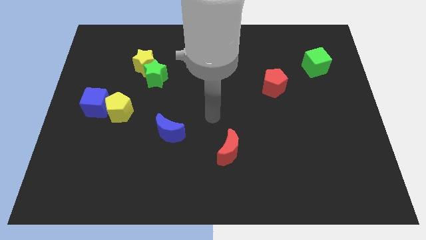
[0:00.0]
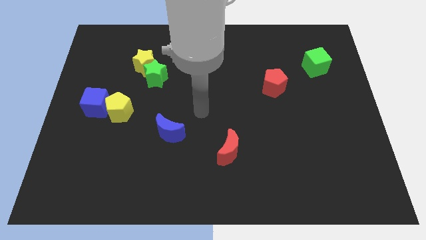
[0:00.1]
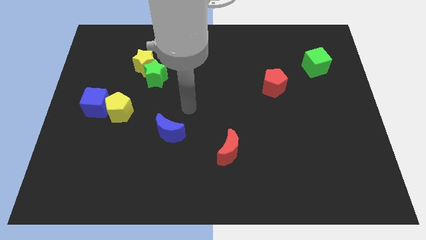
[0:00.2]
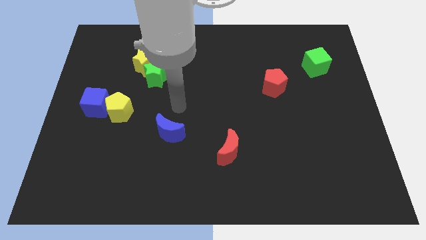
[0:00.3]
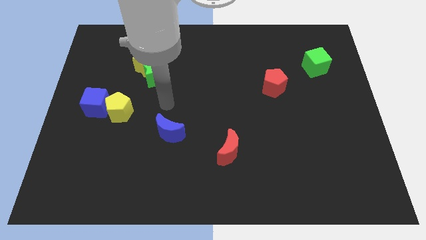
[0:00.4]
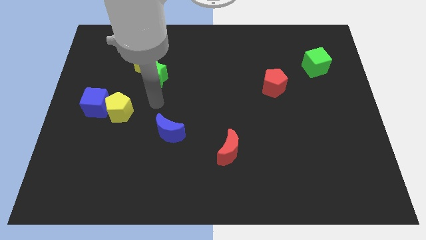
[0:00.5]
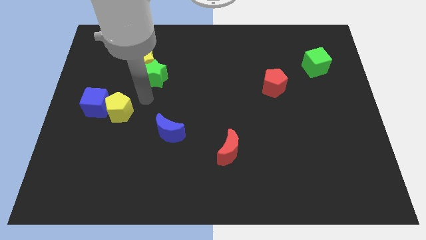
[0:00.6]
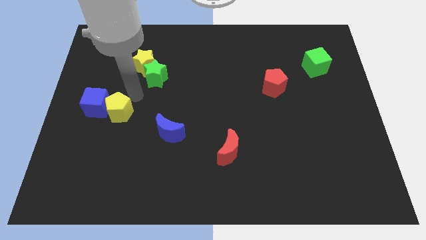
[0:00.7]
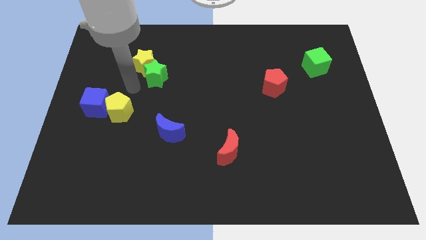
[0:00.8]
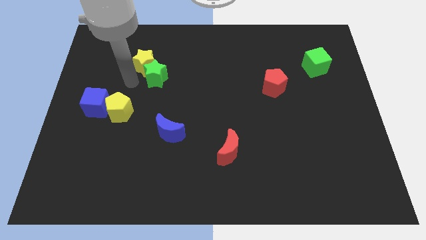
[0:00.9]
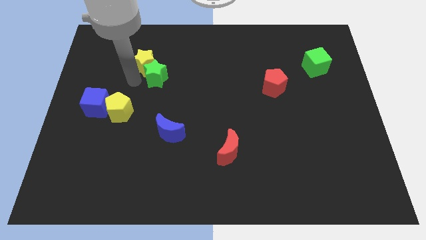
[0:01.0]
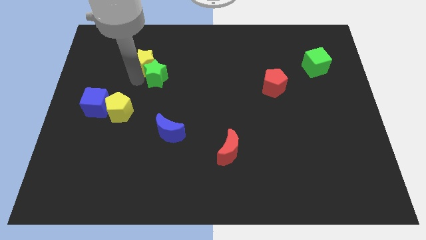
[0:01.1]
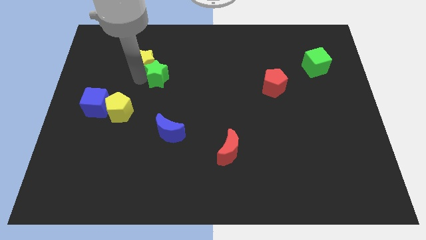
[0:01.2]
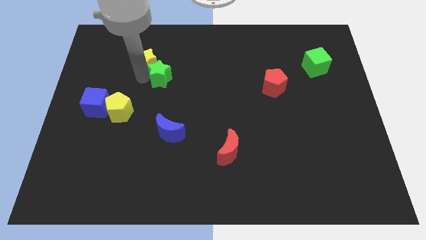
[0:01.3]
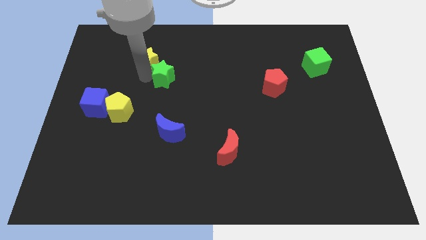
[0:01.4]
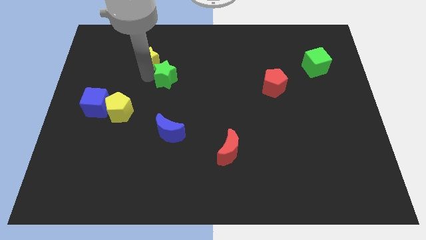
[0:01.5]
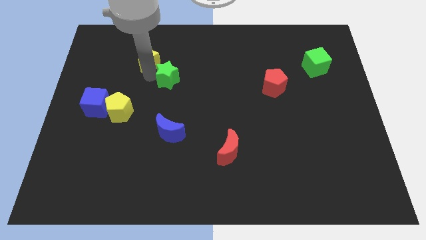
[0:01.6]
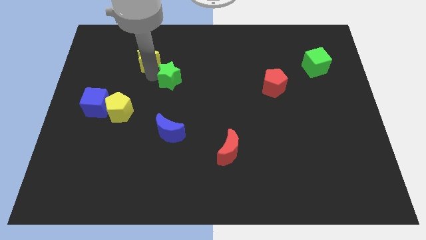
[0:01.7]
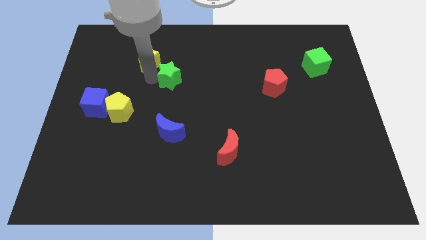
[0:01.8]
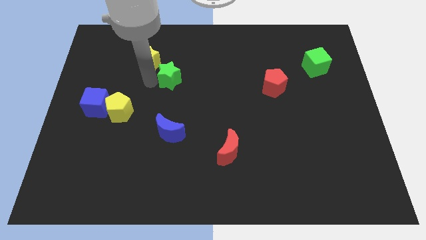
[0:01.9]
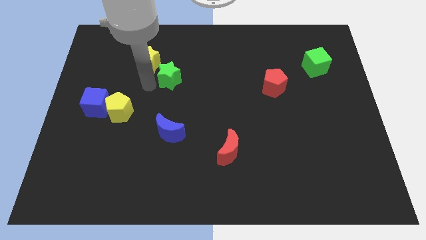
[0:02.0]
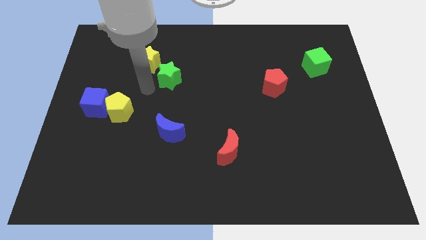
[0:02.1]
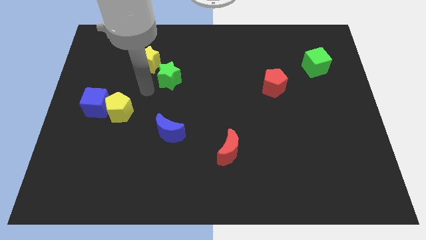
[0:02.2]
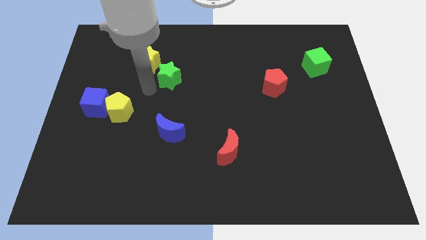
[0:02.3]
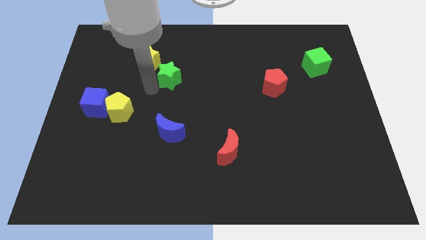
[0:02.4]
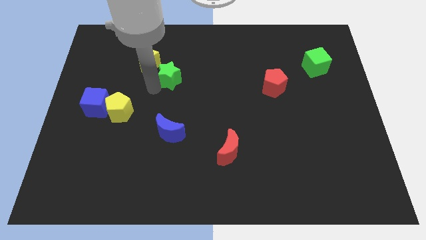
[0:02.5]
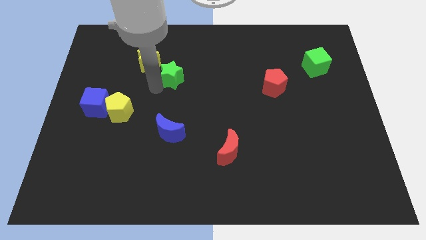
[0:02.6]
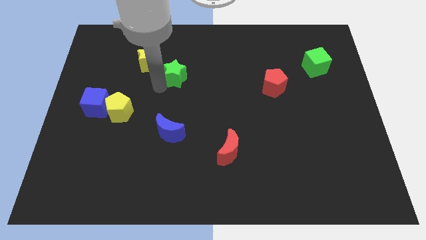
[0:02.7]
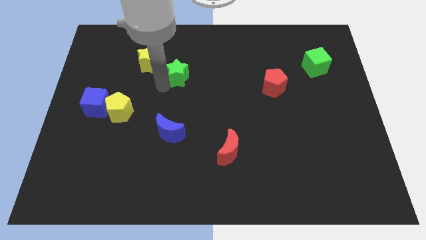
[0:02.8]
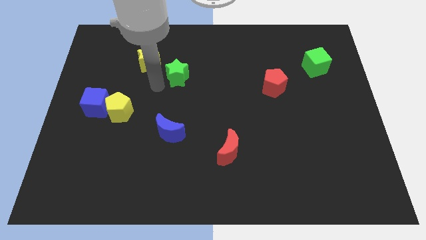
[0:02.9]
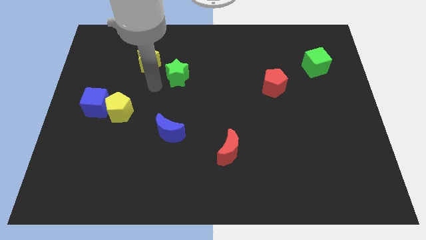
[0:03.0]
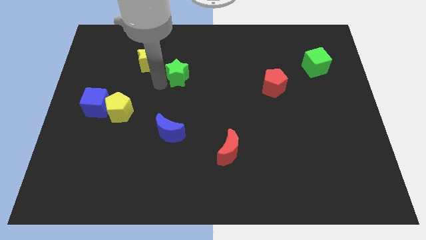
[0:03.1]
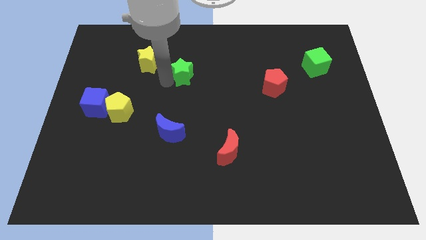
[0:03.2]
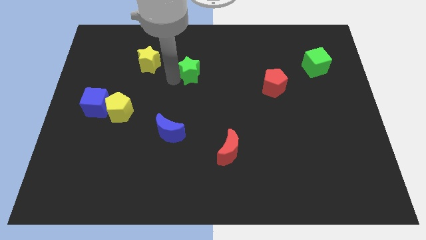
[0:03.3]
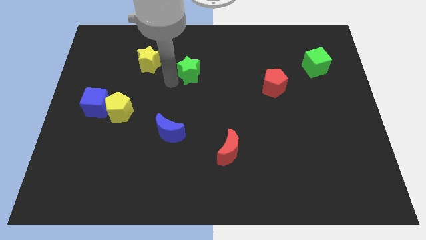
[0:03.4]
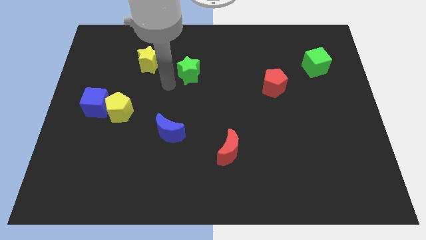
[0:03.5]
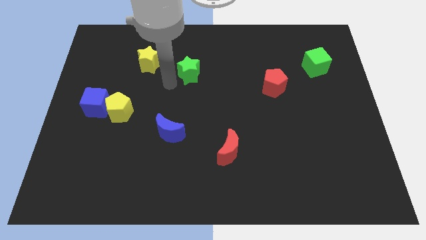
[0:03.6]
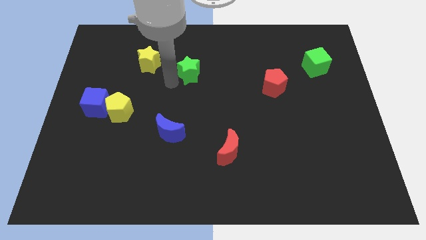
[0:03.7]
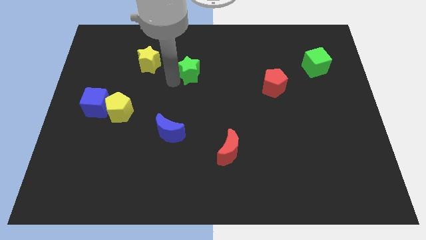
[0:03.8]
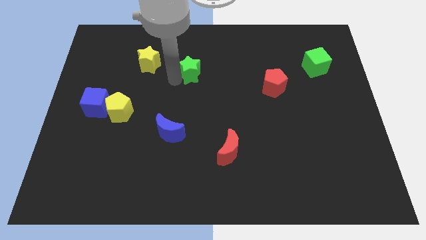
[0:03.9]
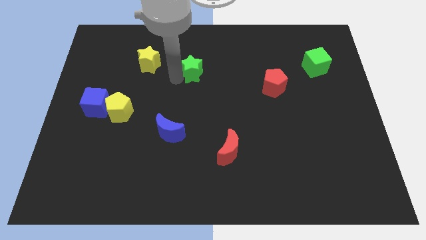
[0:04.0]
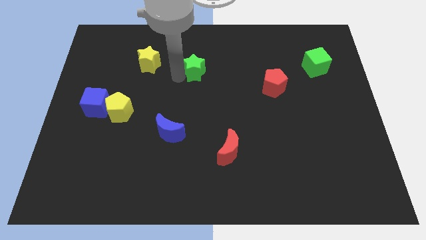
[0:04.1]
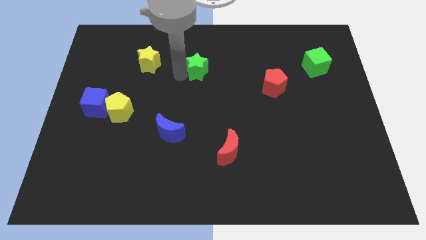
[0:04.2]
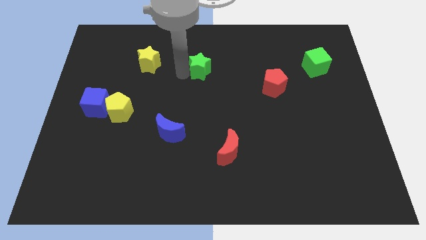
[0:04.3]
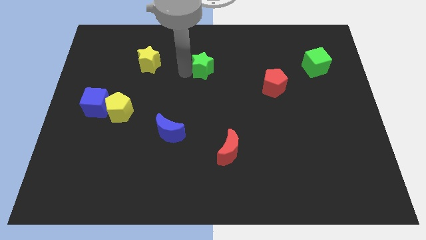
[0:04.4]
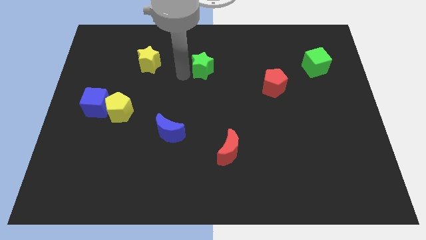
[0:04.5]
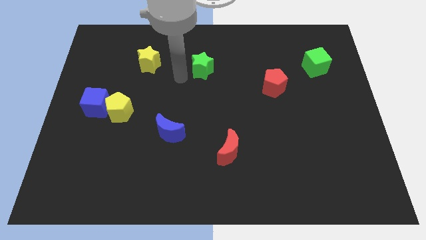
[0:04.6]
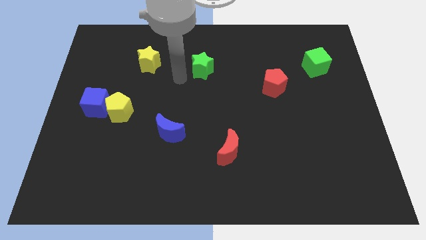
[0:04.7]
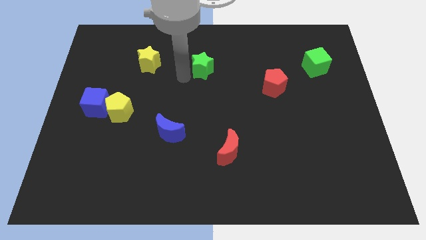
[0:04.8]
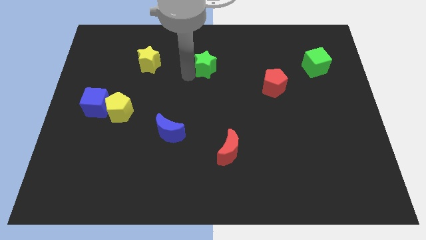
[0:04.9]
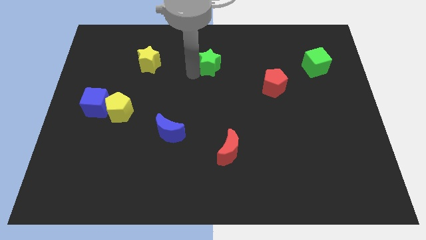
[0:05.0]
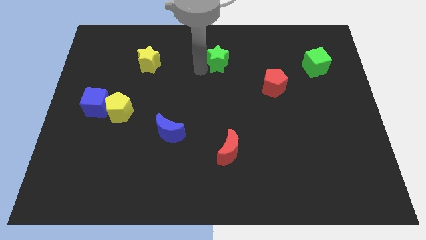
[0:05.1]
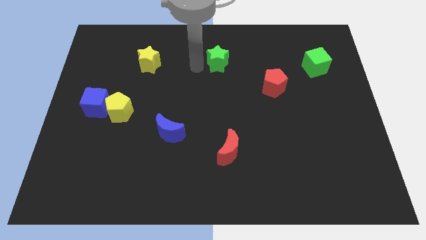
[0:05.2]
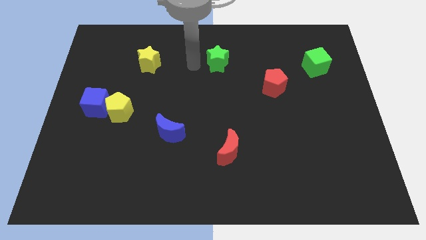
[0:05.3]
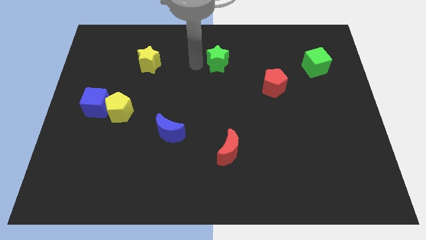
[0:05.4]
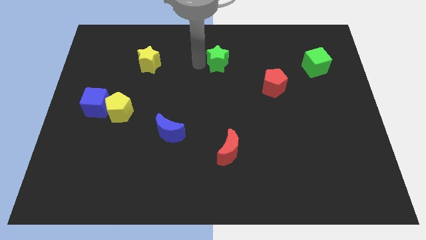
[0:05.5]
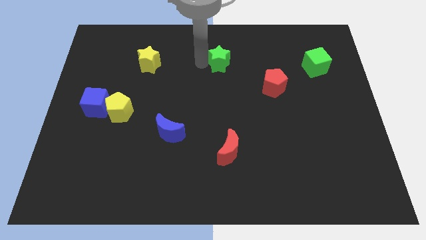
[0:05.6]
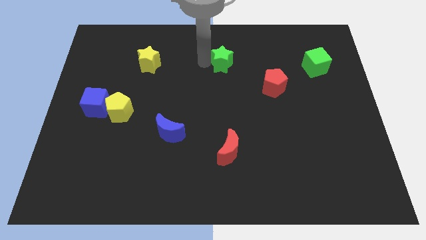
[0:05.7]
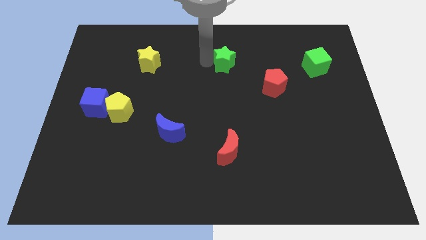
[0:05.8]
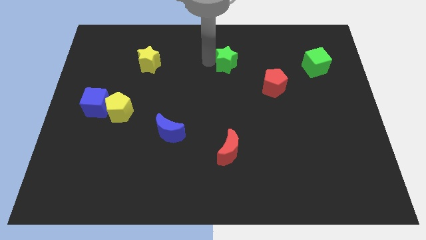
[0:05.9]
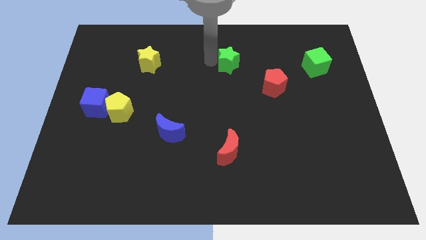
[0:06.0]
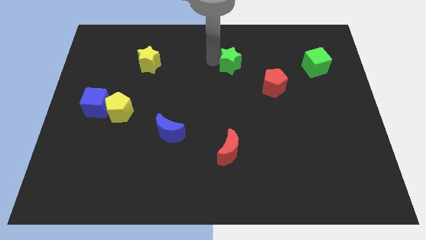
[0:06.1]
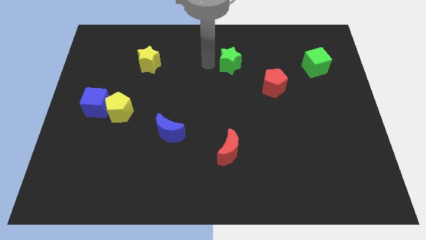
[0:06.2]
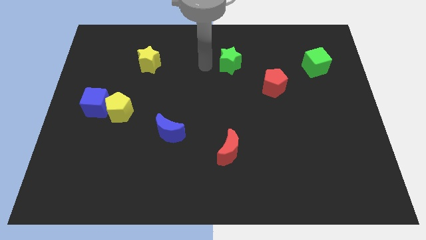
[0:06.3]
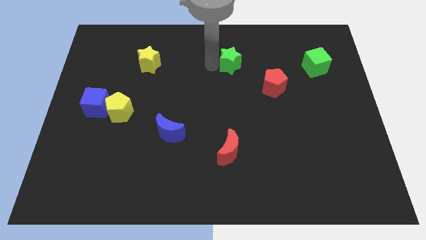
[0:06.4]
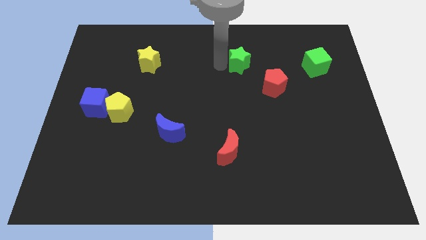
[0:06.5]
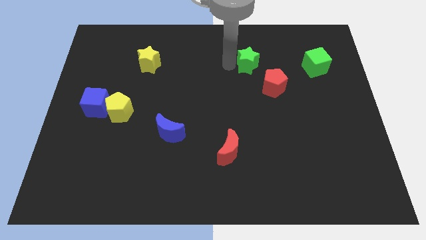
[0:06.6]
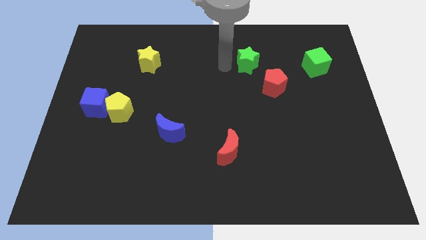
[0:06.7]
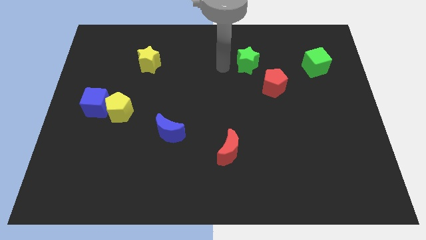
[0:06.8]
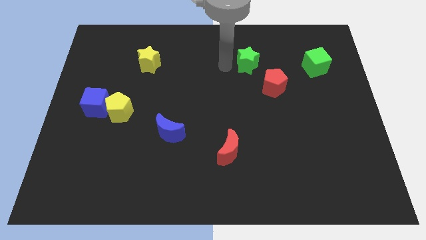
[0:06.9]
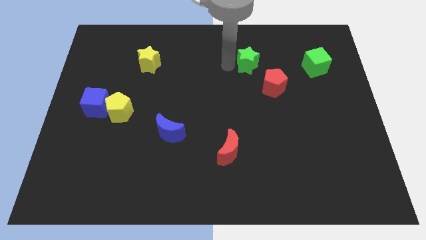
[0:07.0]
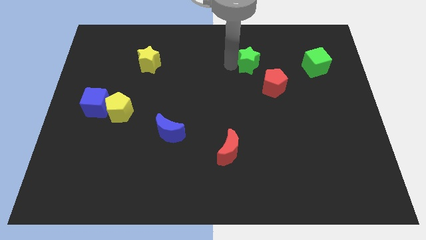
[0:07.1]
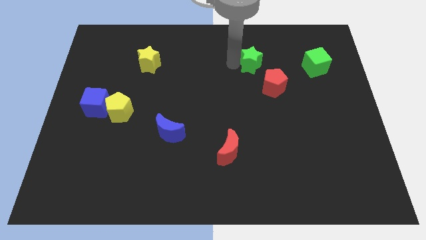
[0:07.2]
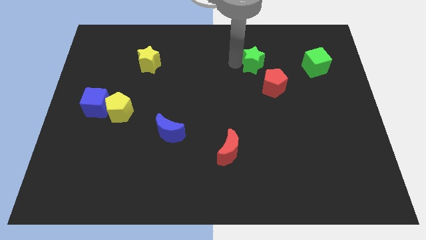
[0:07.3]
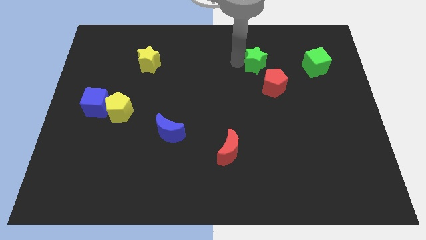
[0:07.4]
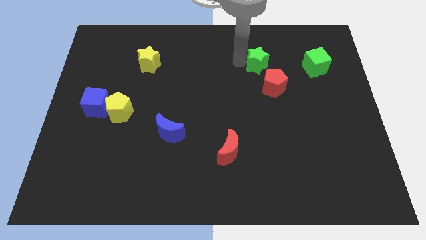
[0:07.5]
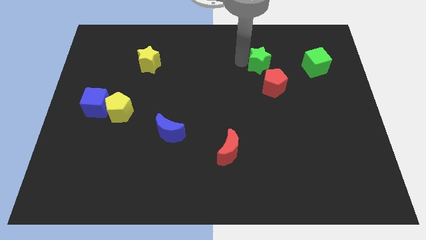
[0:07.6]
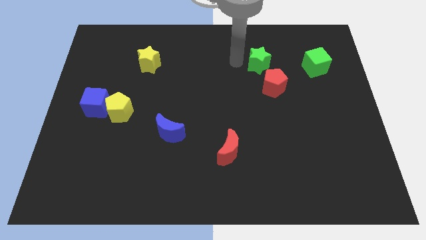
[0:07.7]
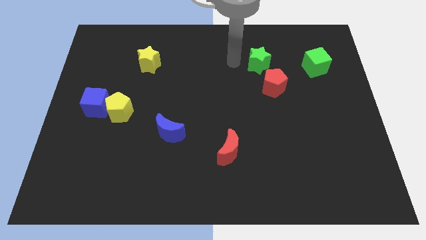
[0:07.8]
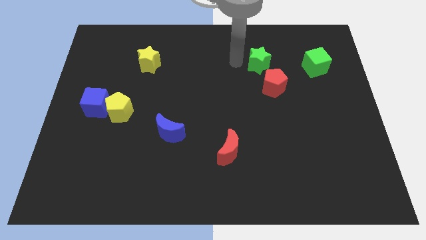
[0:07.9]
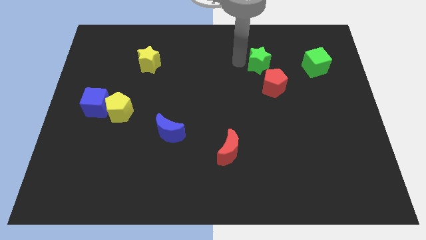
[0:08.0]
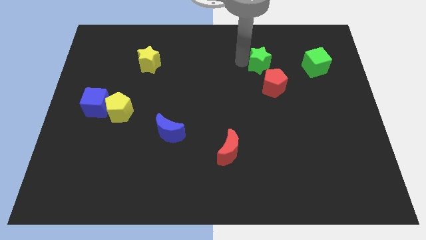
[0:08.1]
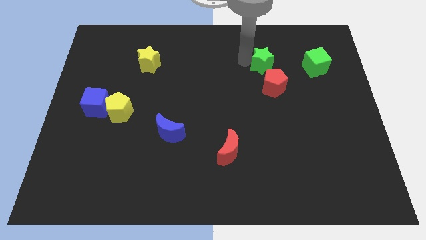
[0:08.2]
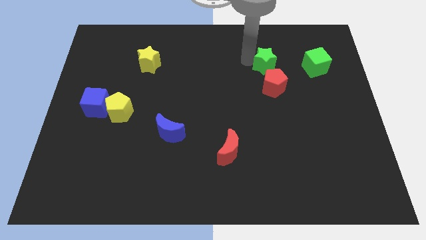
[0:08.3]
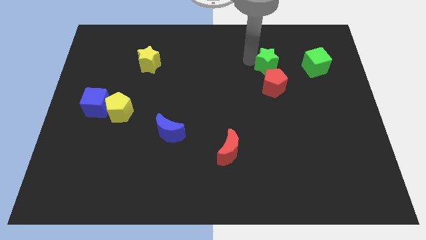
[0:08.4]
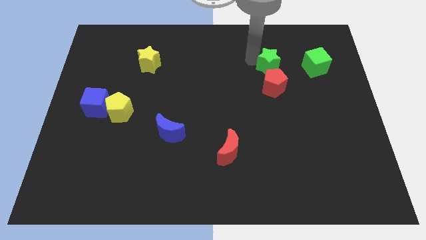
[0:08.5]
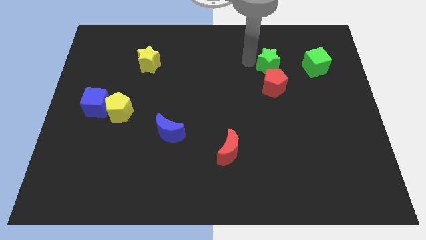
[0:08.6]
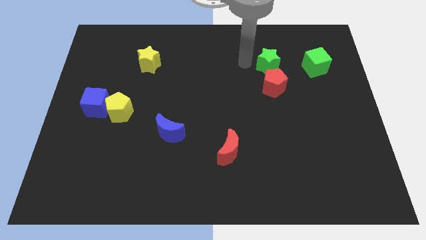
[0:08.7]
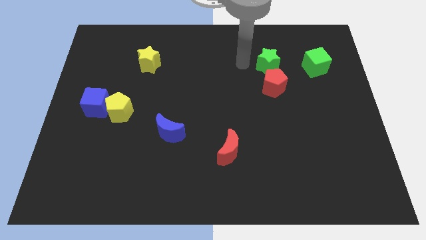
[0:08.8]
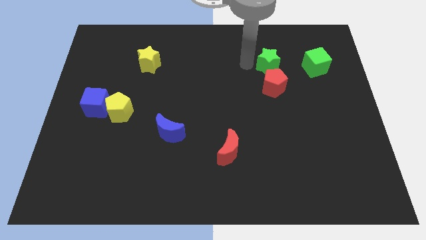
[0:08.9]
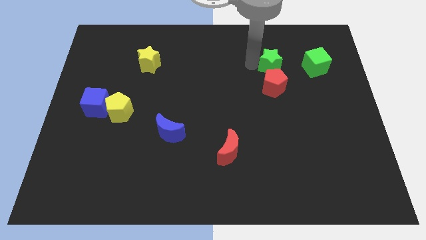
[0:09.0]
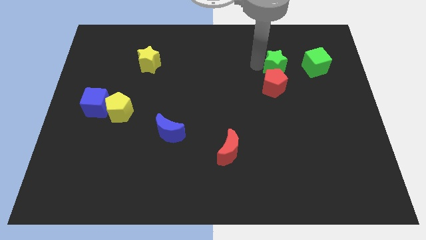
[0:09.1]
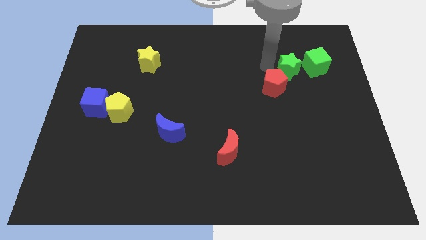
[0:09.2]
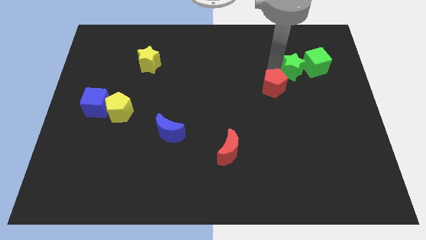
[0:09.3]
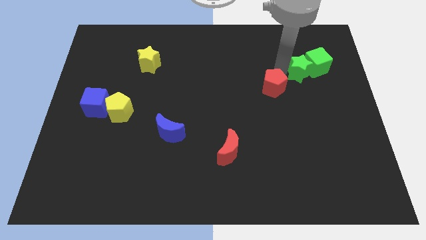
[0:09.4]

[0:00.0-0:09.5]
put the green star next to the green cube
